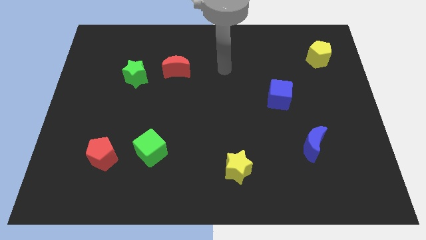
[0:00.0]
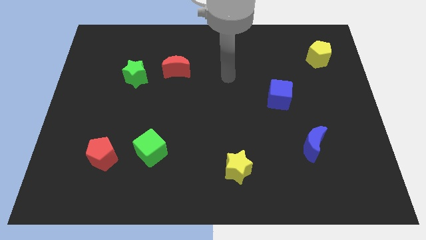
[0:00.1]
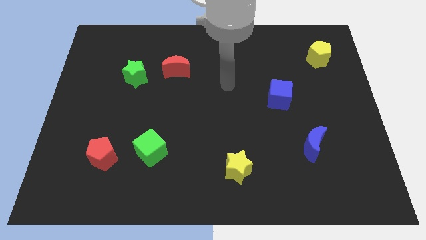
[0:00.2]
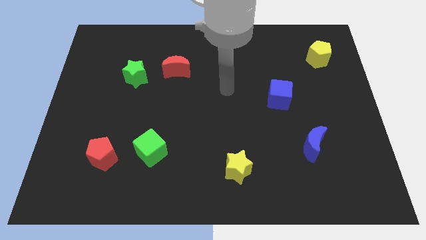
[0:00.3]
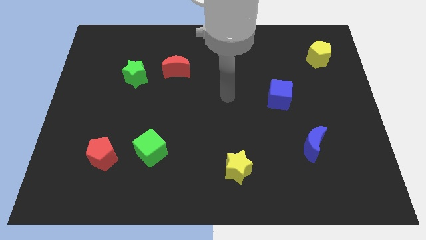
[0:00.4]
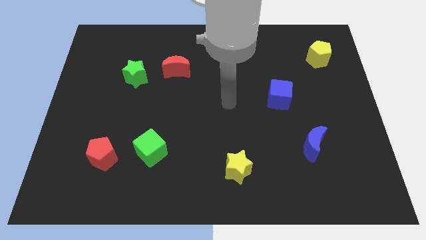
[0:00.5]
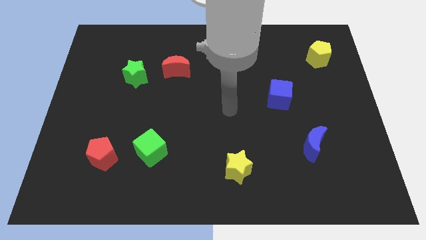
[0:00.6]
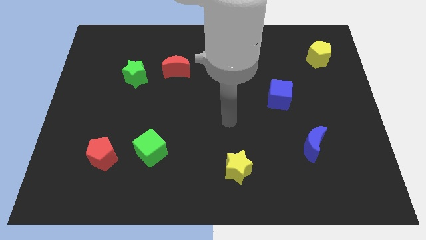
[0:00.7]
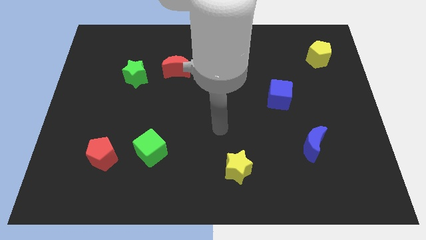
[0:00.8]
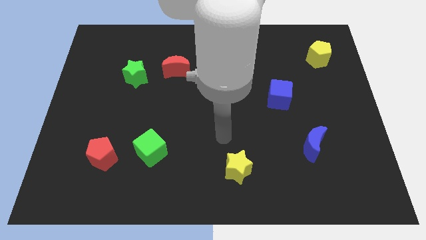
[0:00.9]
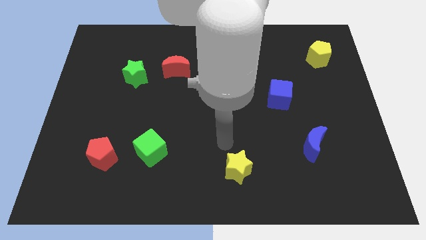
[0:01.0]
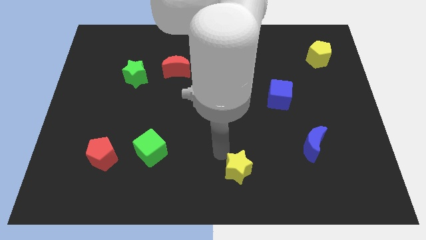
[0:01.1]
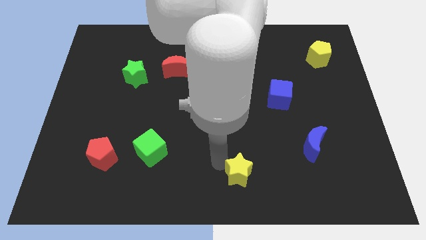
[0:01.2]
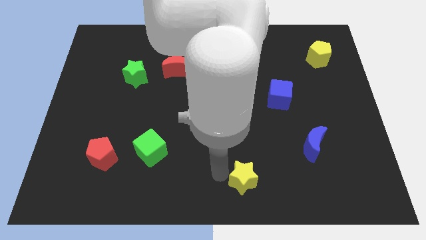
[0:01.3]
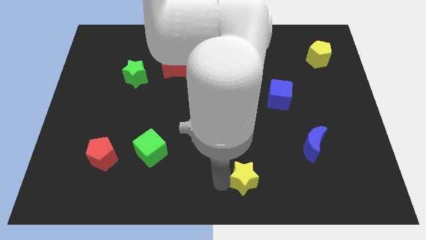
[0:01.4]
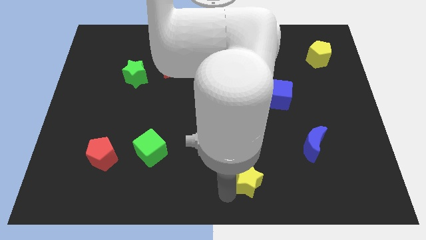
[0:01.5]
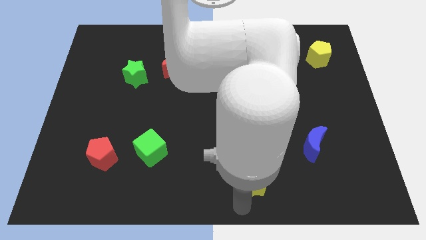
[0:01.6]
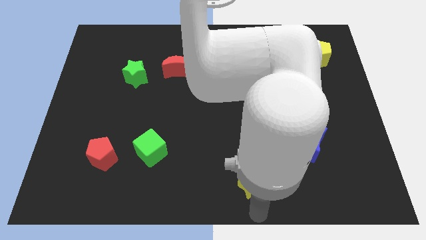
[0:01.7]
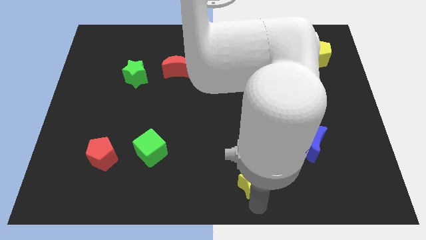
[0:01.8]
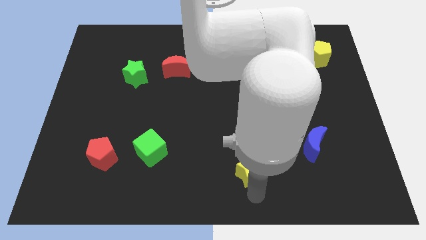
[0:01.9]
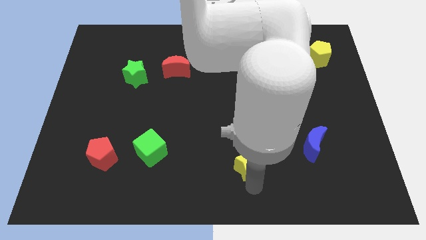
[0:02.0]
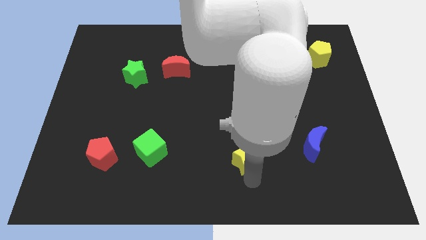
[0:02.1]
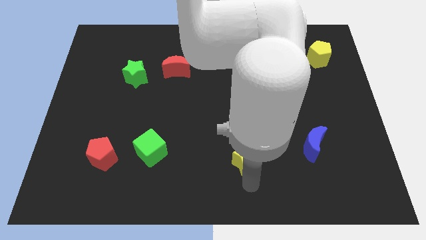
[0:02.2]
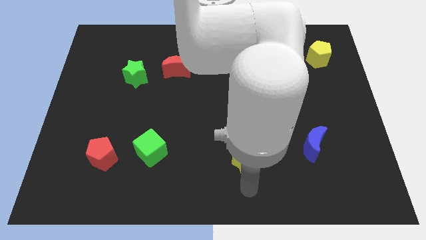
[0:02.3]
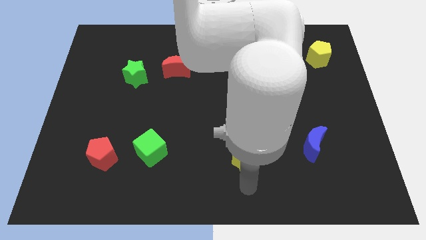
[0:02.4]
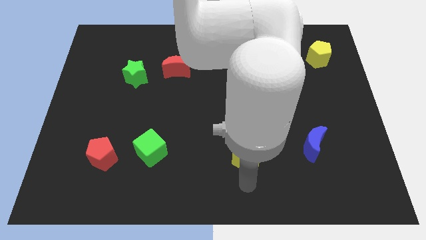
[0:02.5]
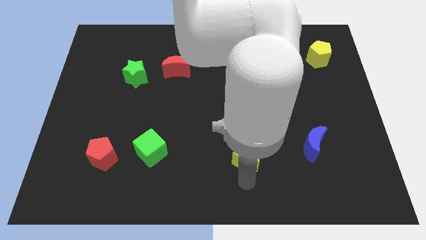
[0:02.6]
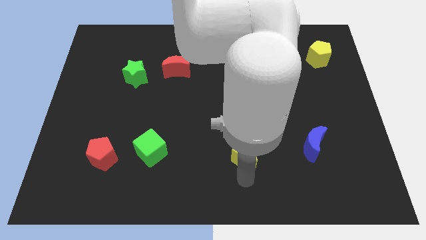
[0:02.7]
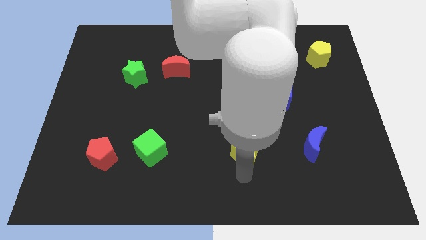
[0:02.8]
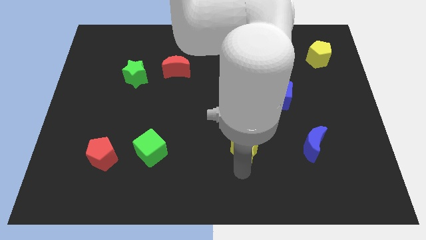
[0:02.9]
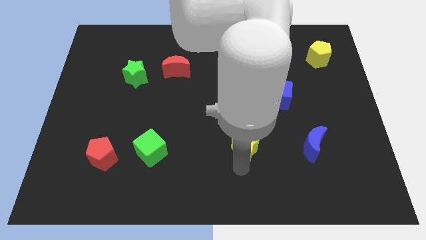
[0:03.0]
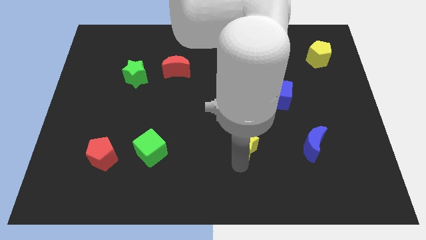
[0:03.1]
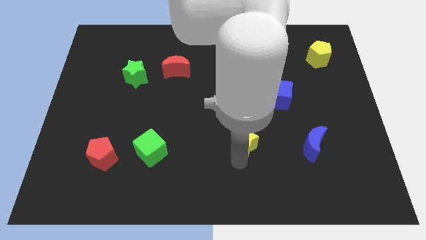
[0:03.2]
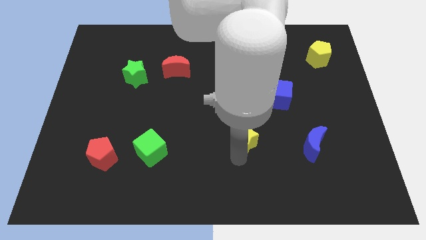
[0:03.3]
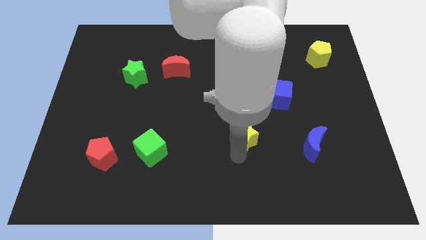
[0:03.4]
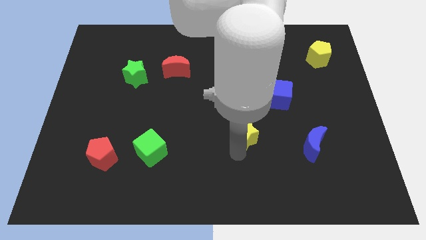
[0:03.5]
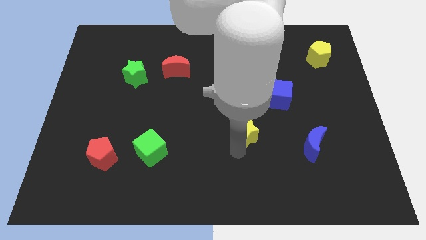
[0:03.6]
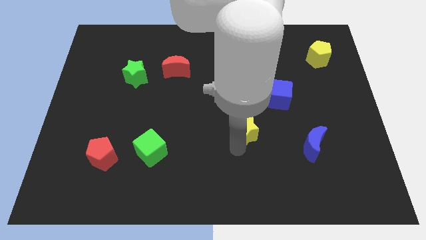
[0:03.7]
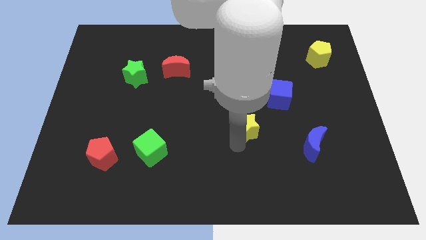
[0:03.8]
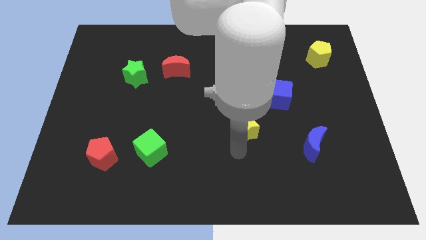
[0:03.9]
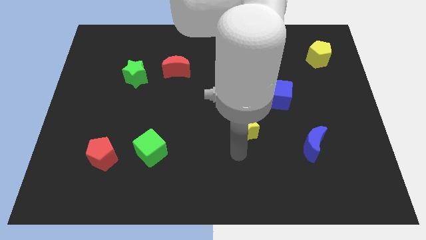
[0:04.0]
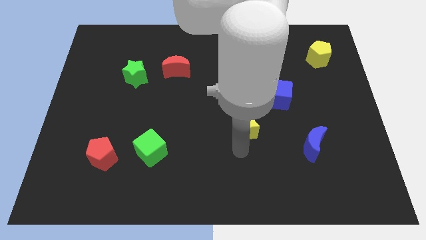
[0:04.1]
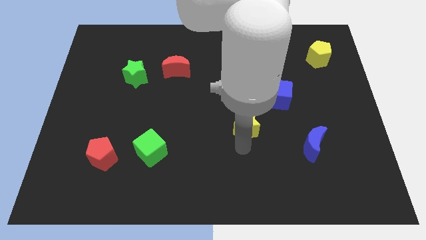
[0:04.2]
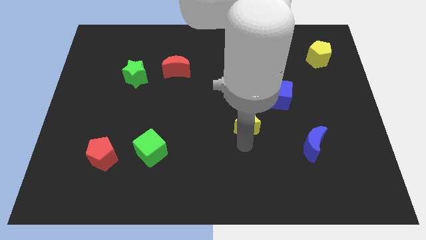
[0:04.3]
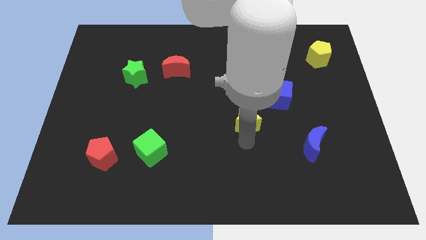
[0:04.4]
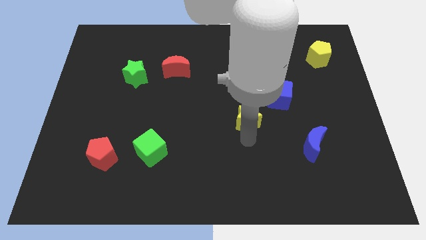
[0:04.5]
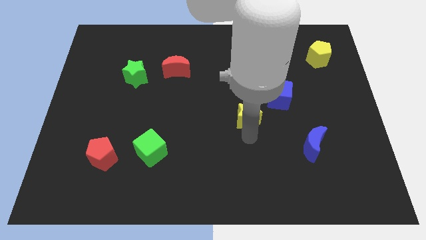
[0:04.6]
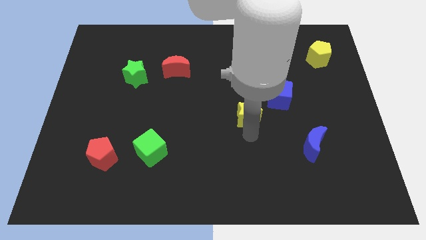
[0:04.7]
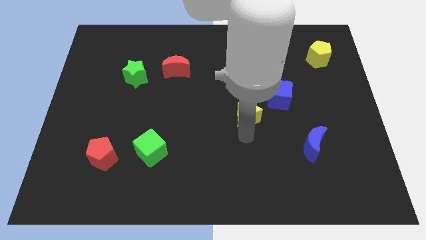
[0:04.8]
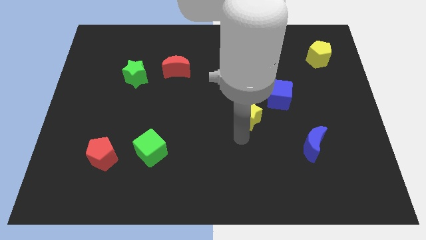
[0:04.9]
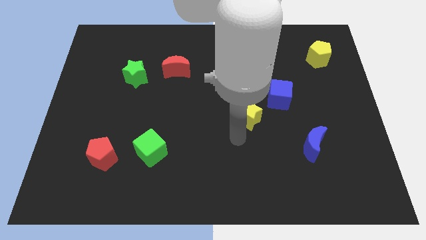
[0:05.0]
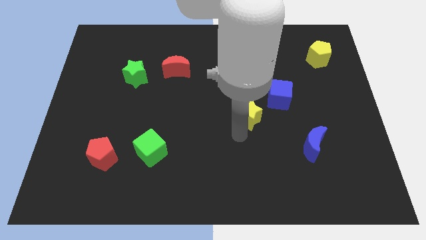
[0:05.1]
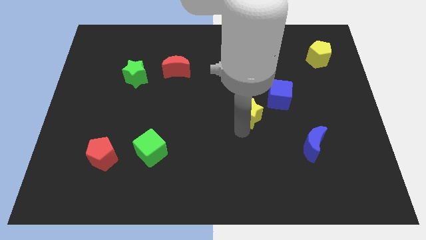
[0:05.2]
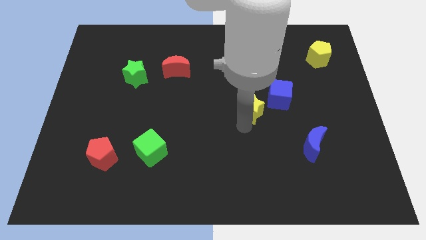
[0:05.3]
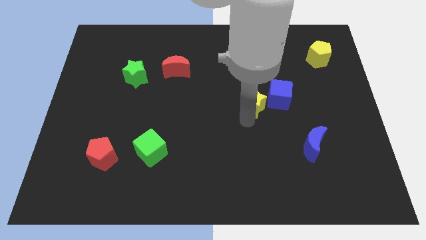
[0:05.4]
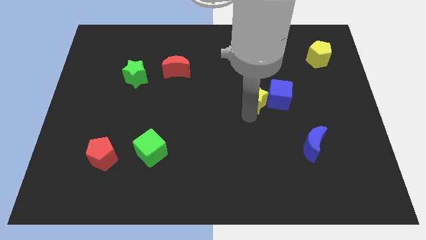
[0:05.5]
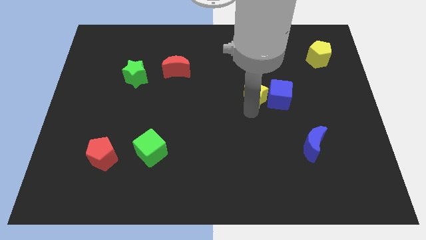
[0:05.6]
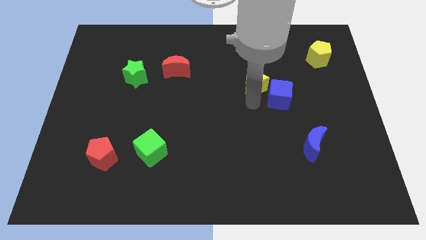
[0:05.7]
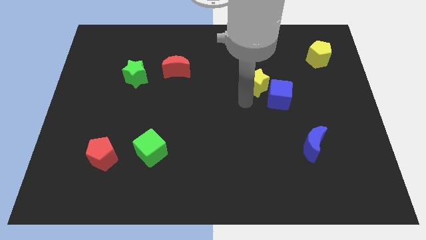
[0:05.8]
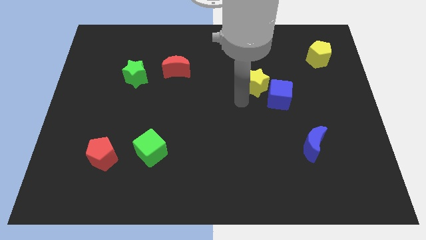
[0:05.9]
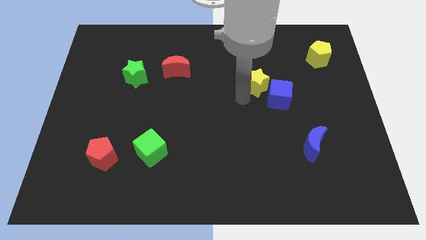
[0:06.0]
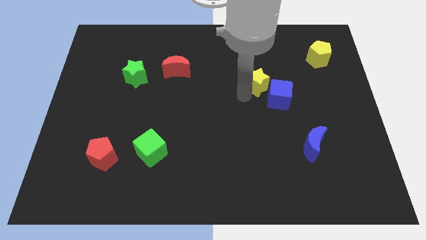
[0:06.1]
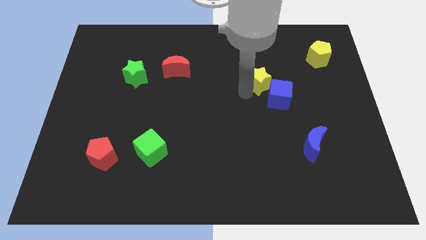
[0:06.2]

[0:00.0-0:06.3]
move the yellow star above the blue cube

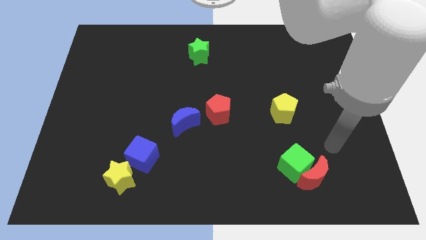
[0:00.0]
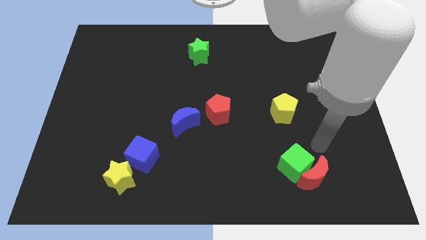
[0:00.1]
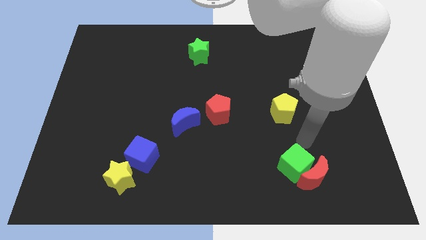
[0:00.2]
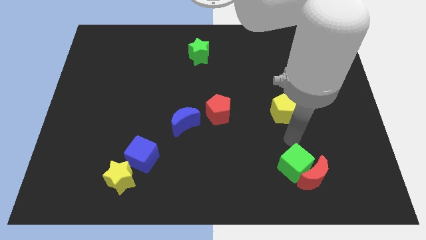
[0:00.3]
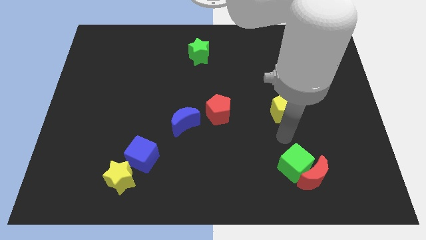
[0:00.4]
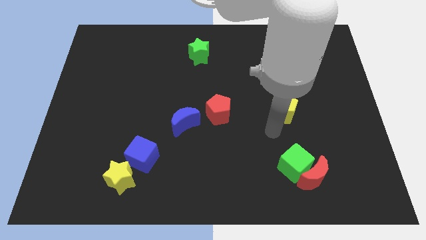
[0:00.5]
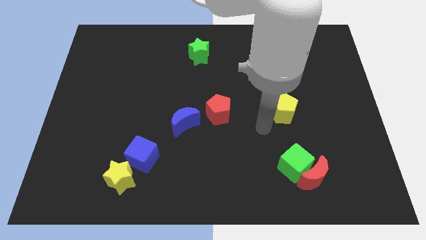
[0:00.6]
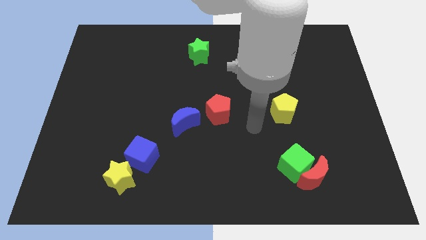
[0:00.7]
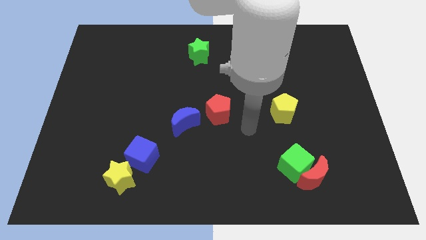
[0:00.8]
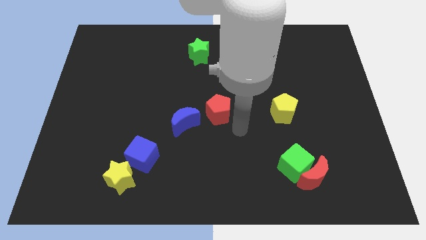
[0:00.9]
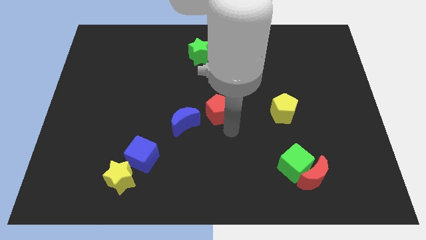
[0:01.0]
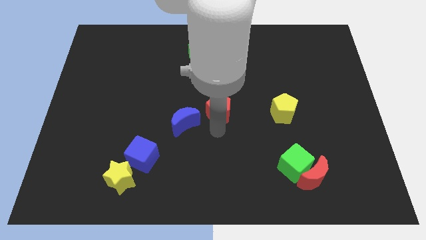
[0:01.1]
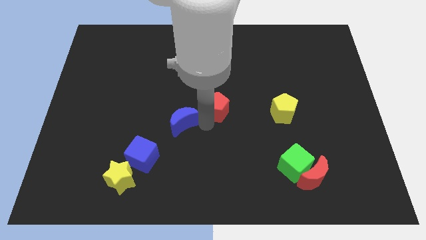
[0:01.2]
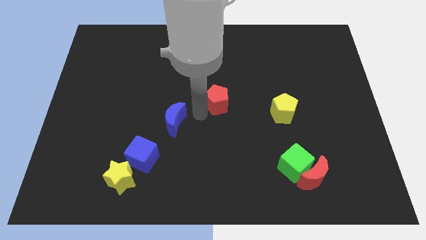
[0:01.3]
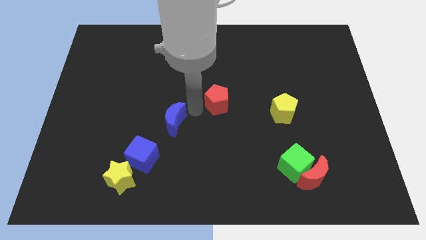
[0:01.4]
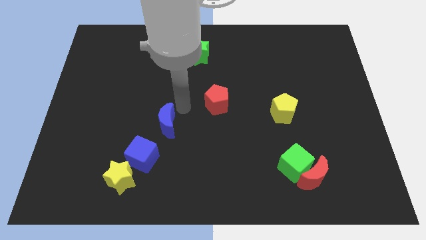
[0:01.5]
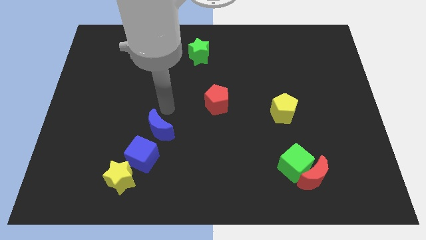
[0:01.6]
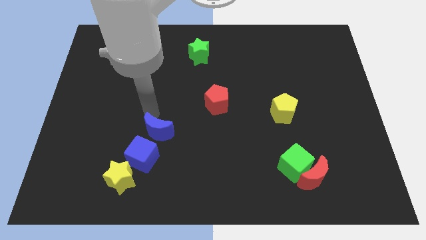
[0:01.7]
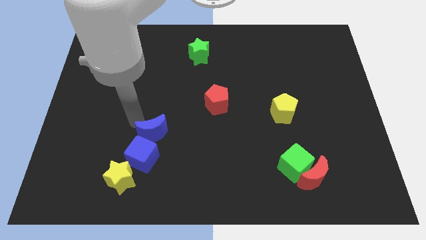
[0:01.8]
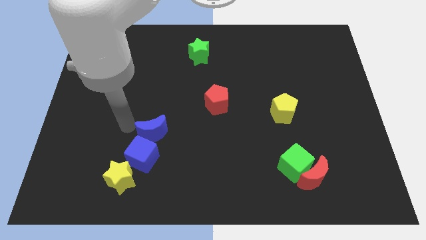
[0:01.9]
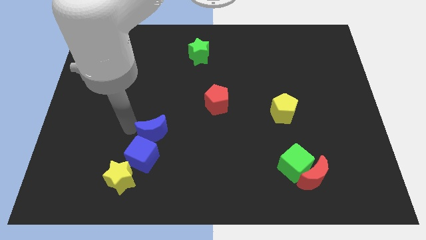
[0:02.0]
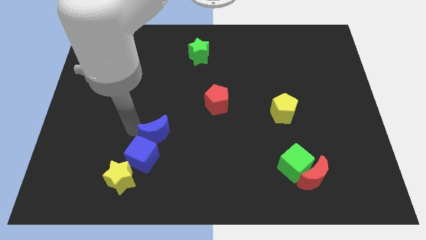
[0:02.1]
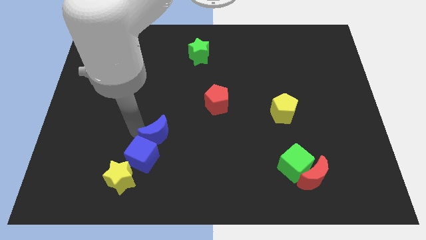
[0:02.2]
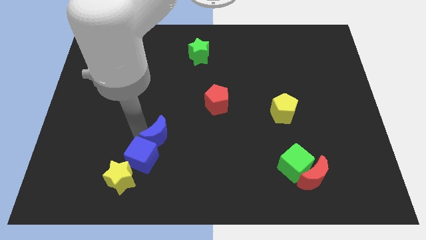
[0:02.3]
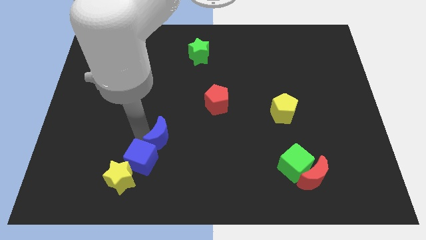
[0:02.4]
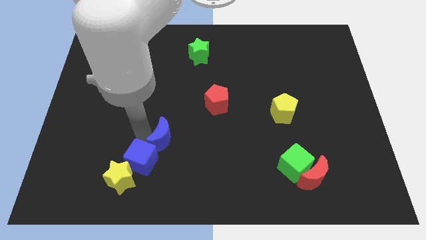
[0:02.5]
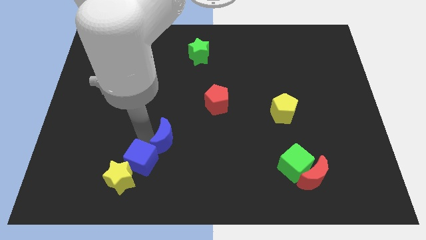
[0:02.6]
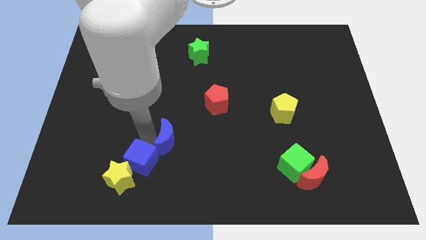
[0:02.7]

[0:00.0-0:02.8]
put the blue moon to the right of the blue cube
